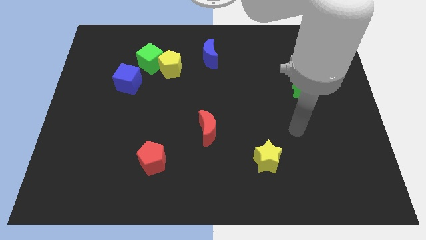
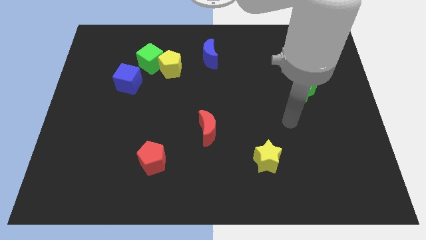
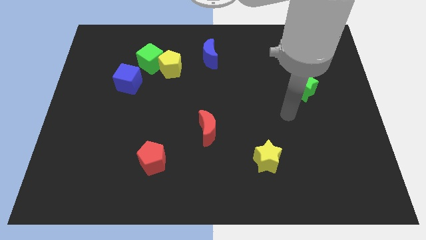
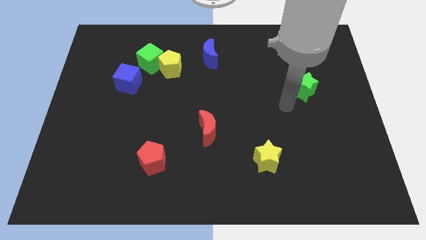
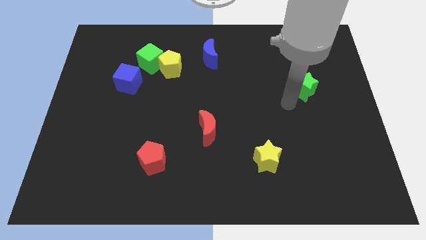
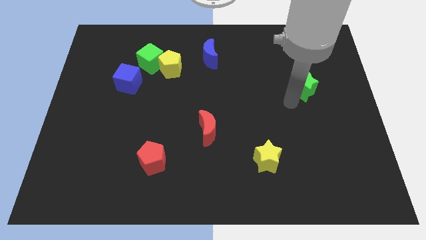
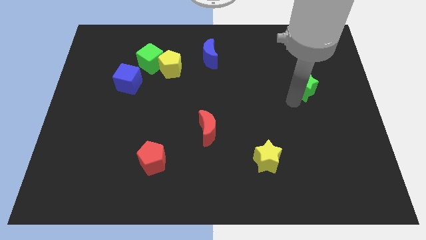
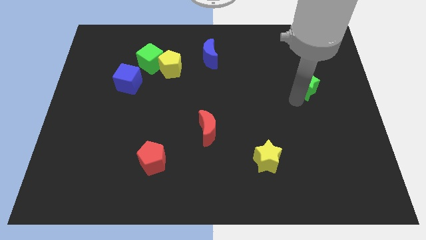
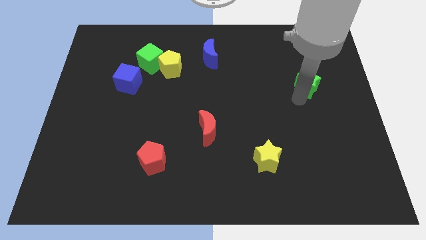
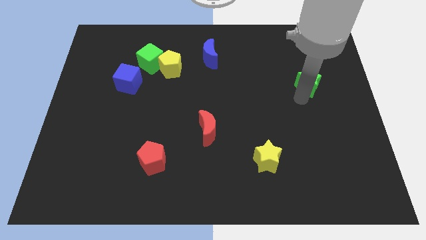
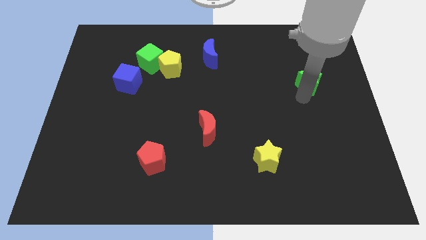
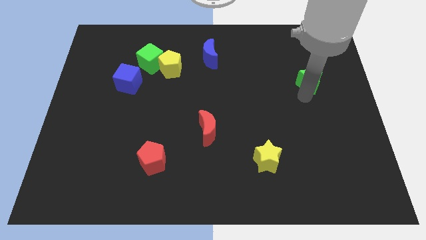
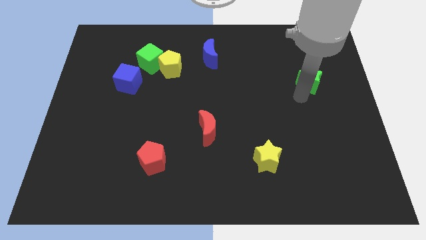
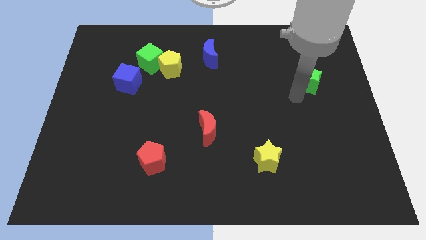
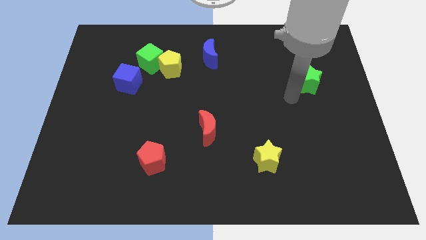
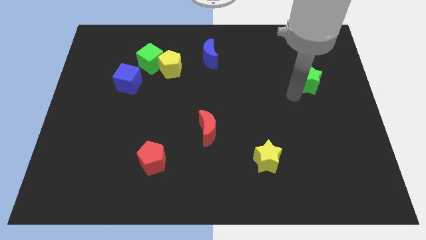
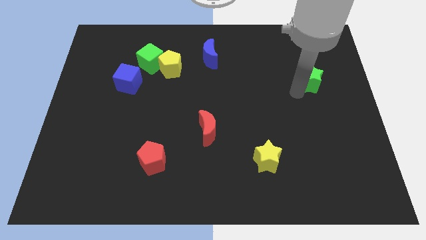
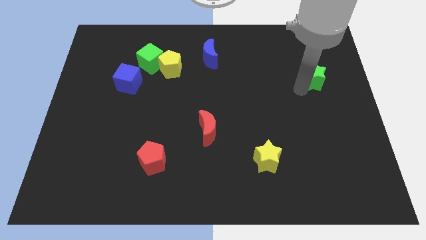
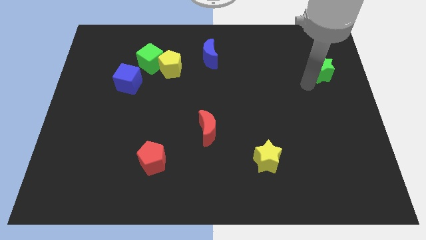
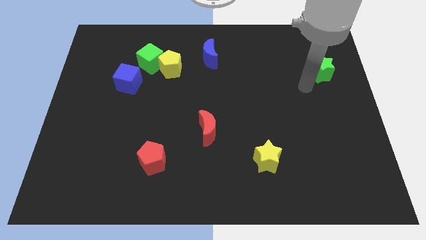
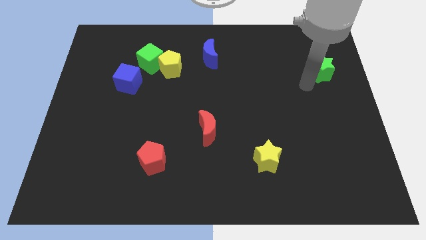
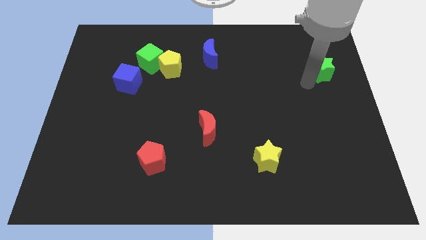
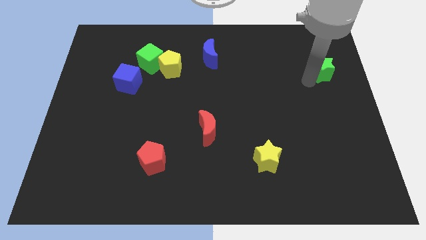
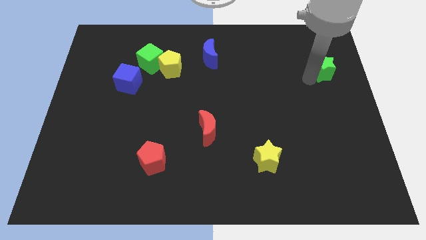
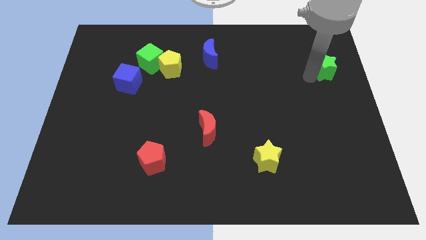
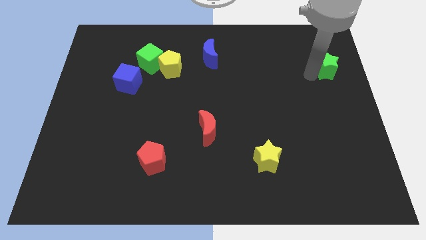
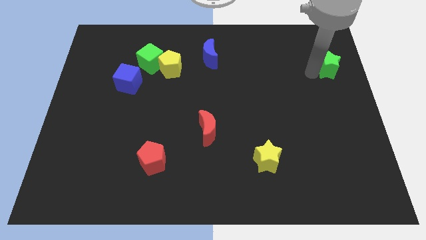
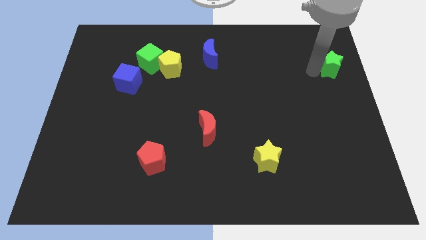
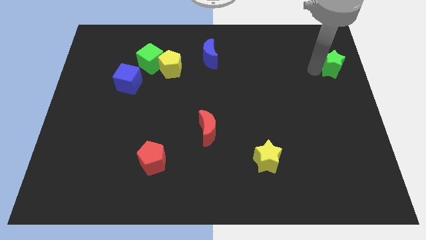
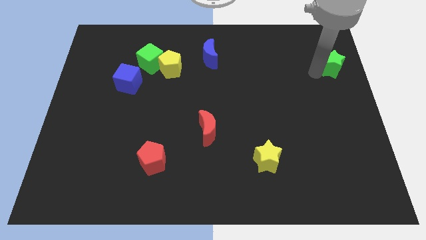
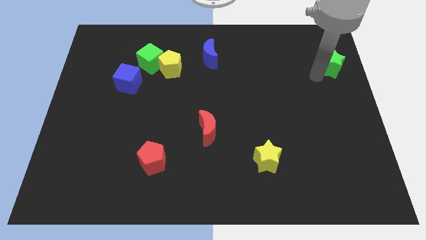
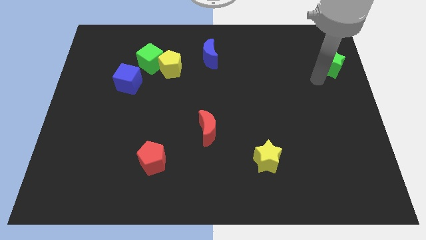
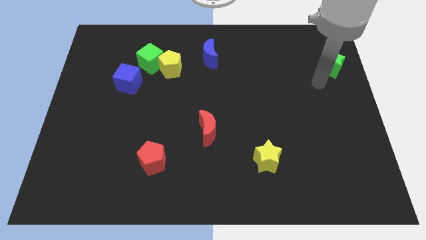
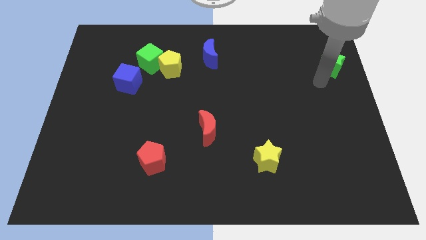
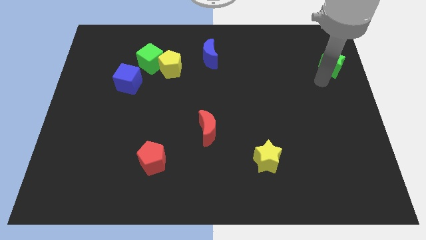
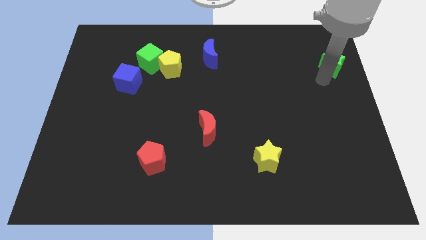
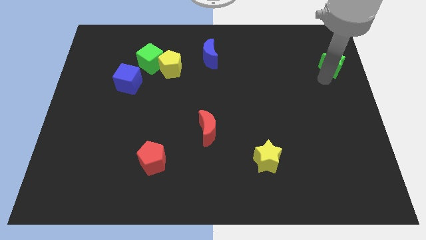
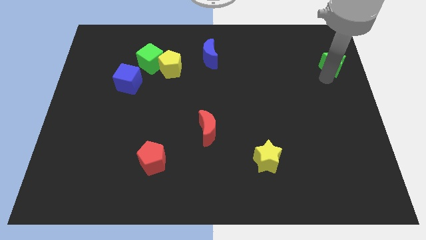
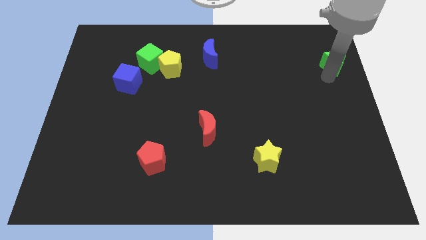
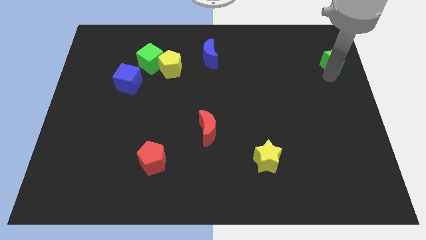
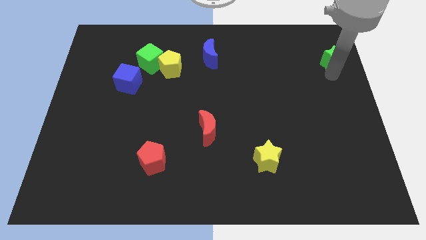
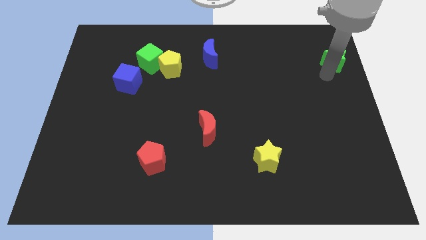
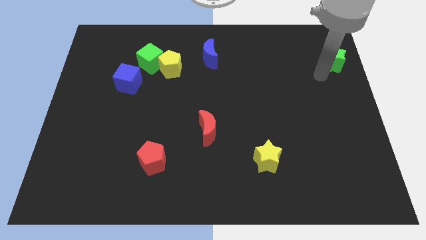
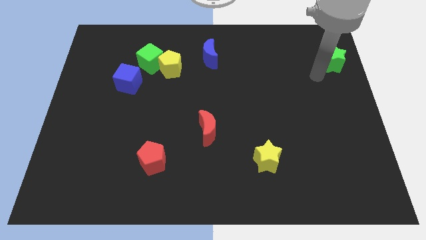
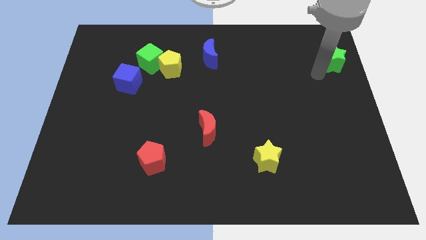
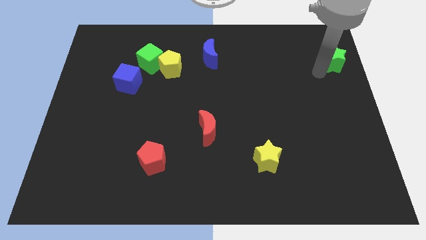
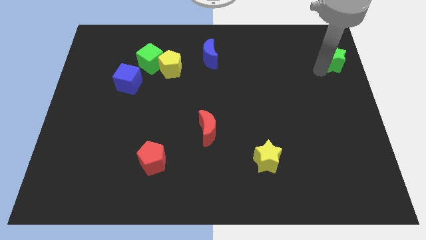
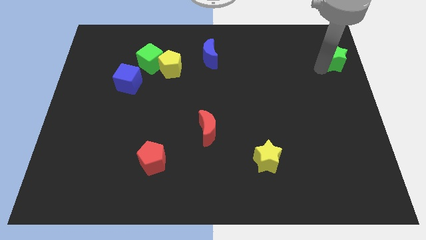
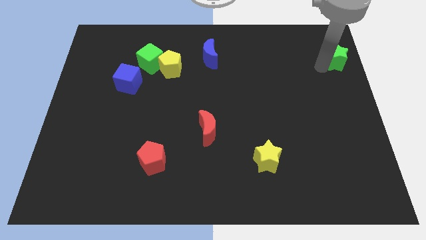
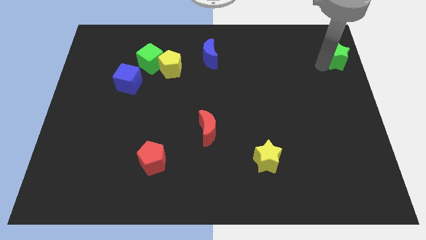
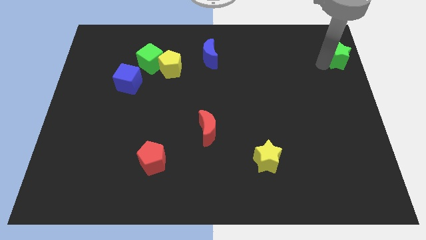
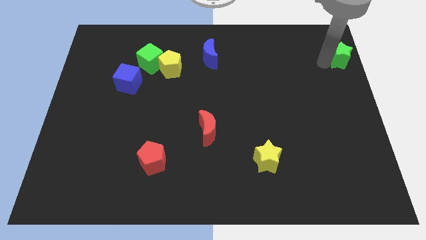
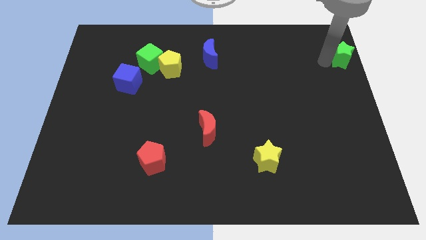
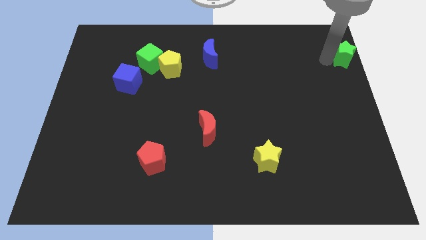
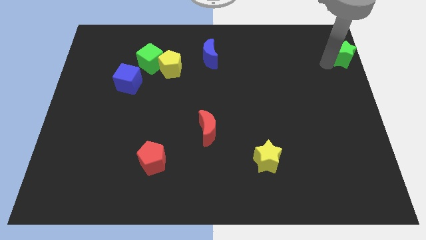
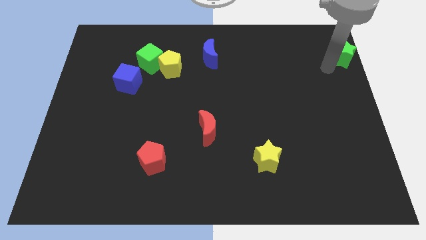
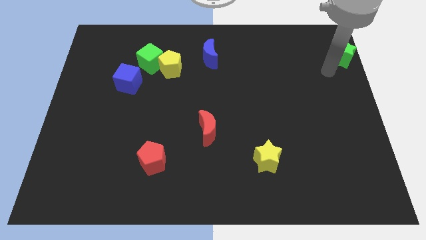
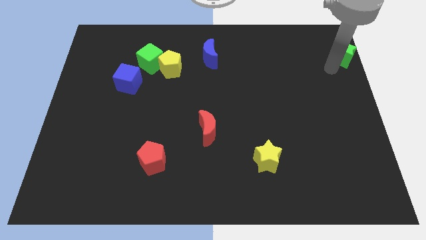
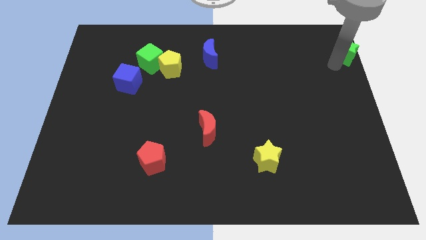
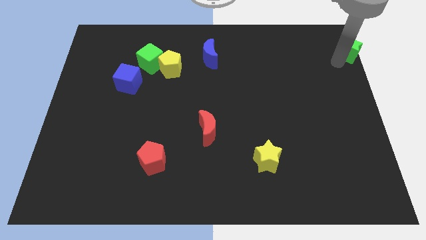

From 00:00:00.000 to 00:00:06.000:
move the green star to the top right

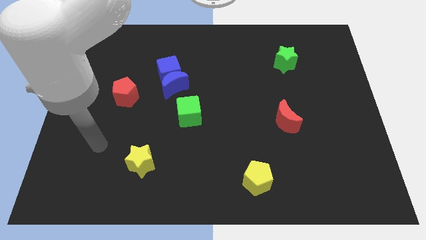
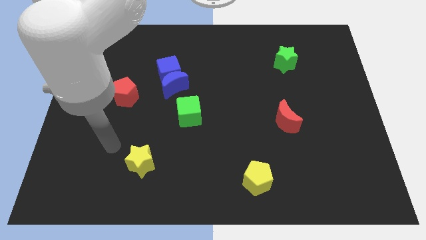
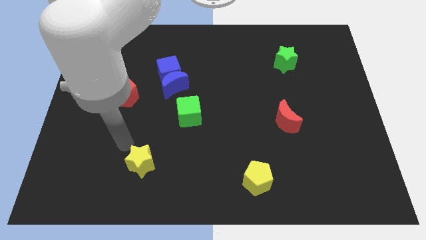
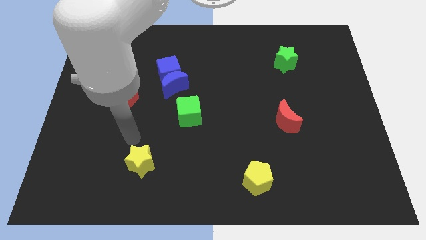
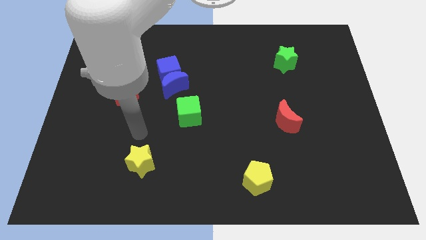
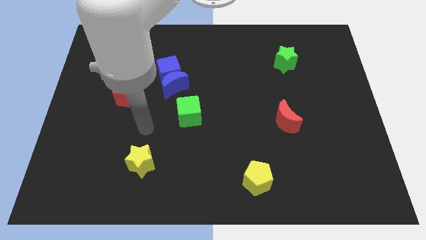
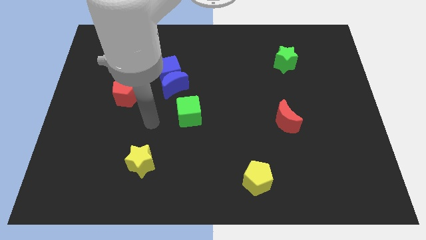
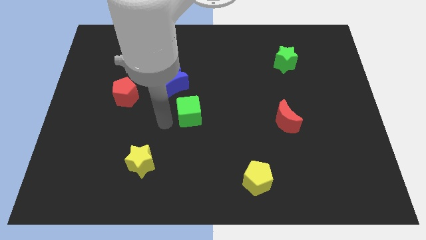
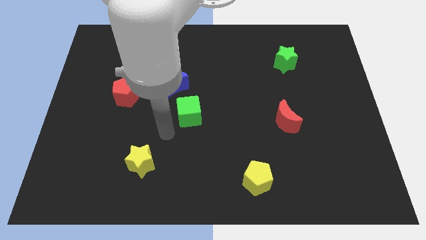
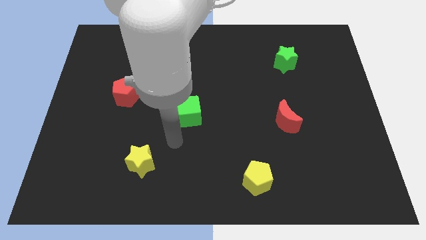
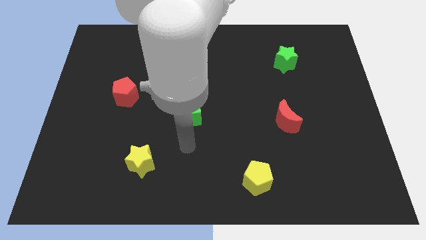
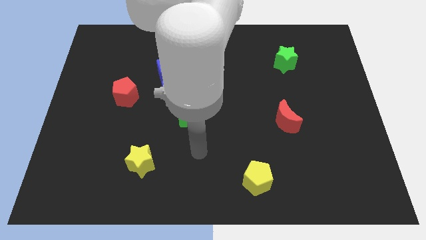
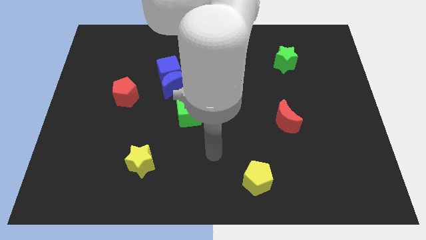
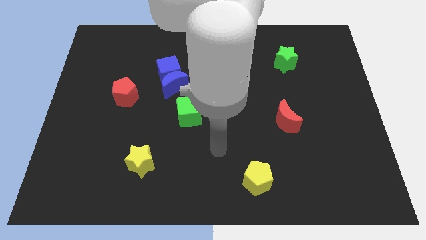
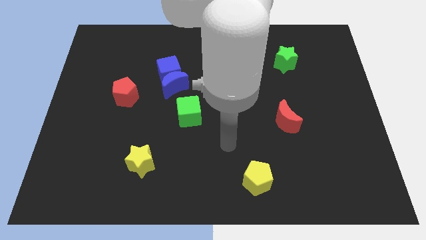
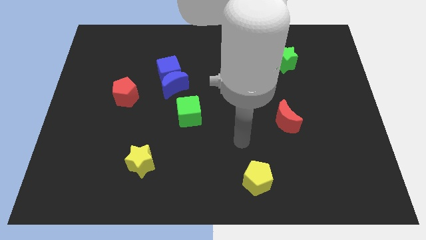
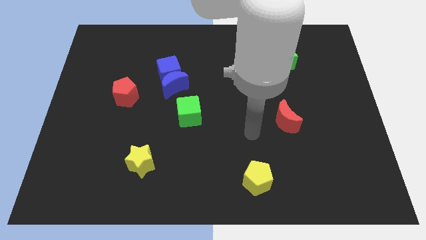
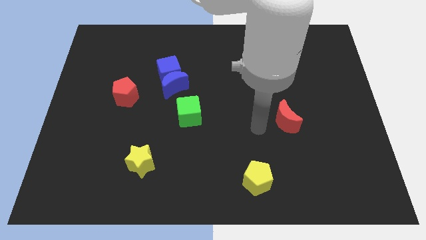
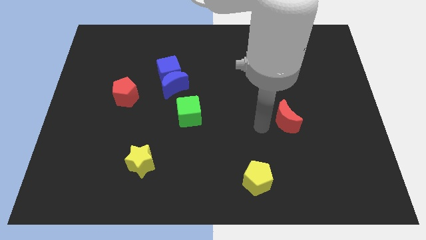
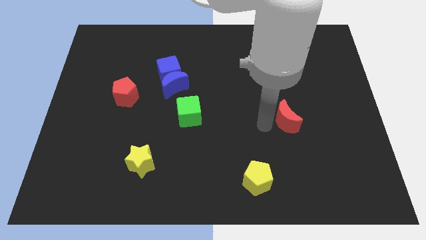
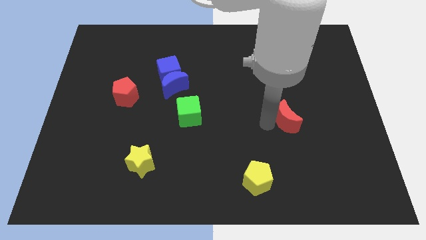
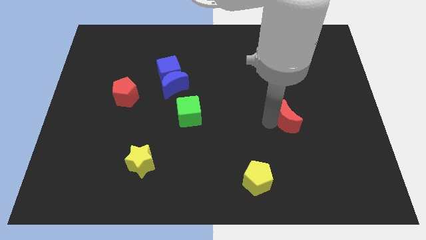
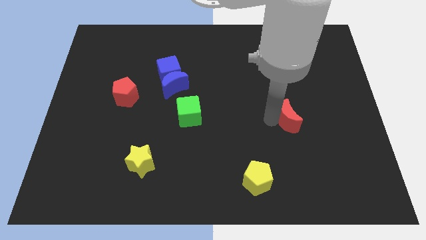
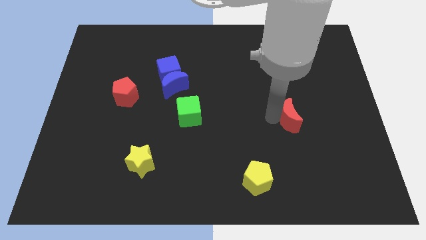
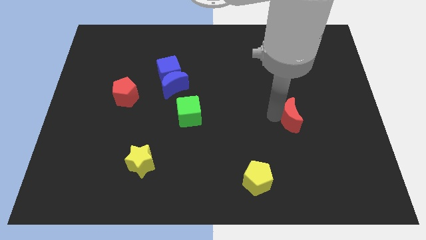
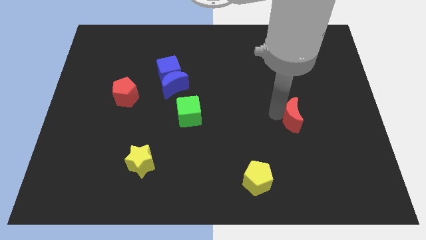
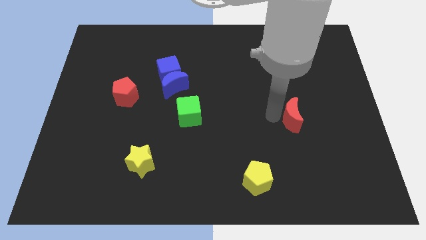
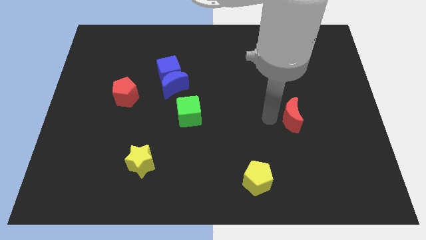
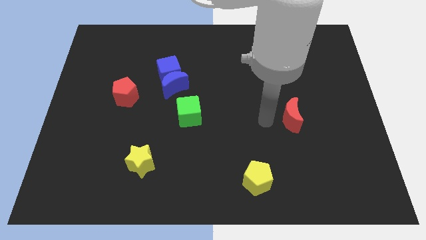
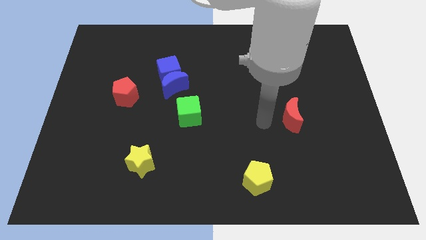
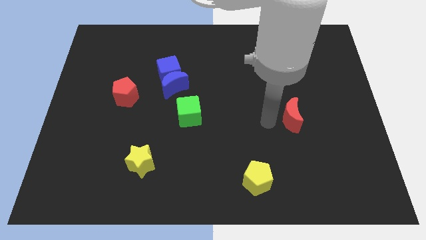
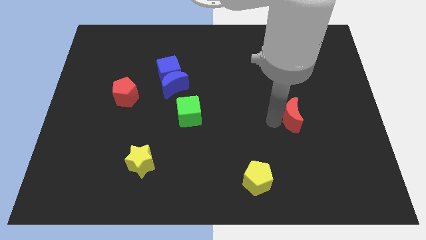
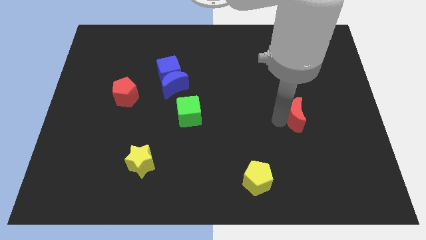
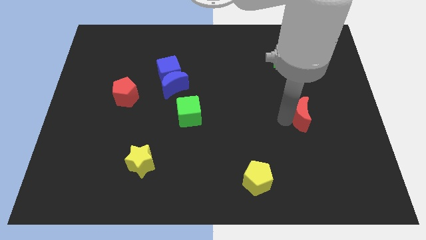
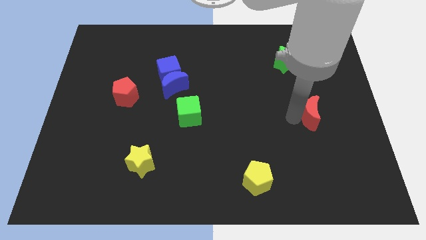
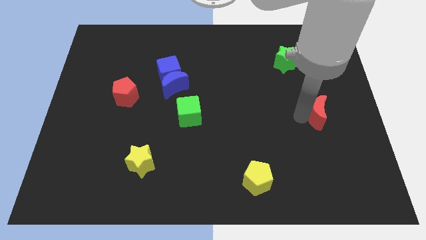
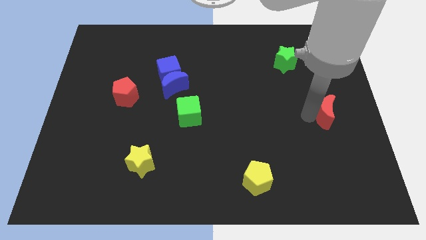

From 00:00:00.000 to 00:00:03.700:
push the red moon to the center right
